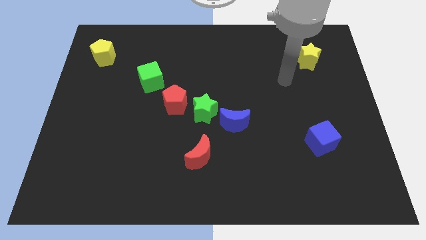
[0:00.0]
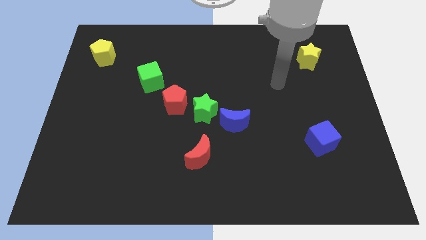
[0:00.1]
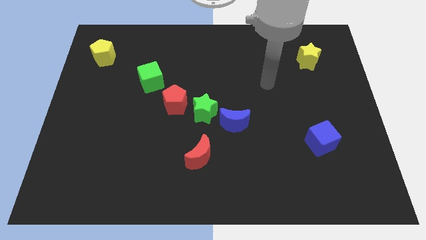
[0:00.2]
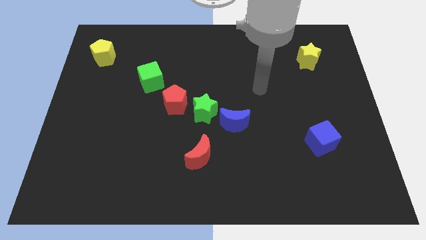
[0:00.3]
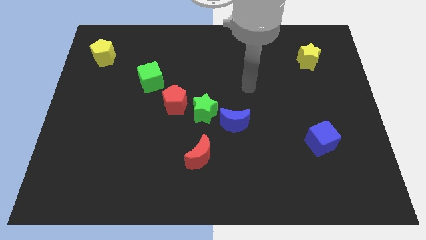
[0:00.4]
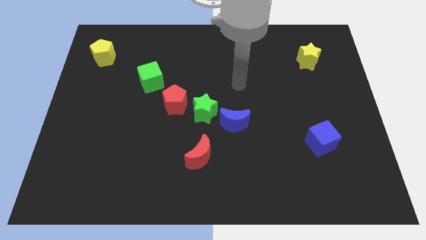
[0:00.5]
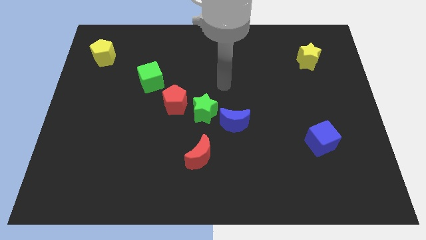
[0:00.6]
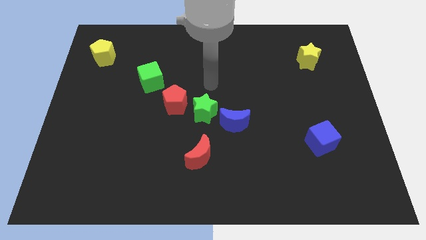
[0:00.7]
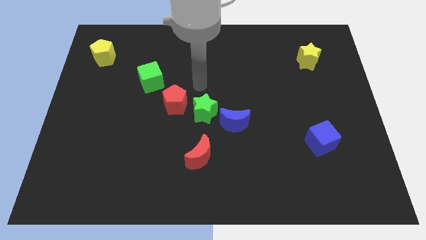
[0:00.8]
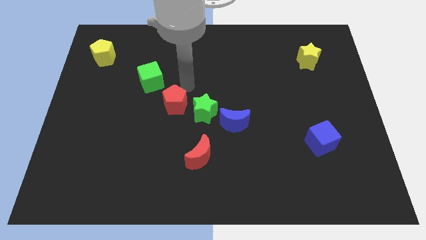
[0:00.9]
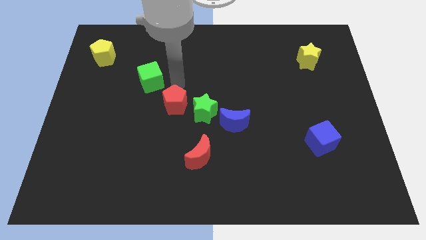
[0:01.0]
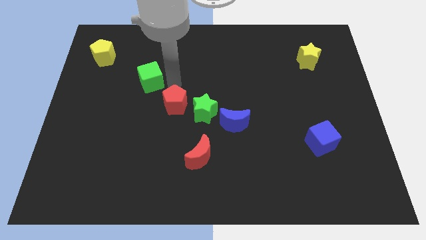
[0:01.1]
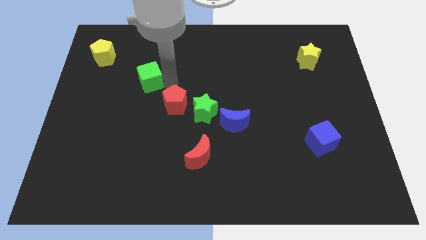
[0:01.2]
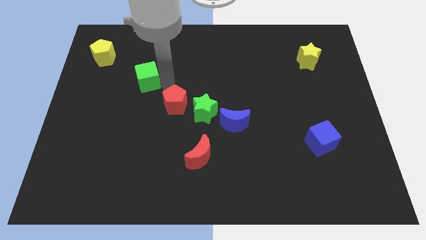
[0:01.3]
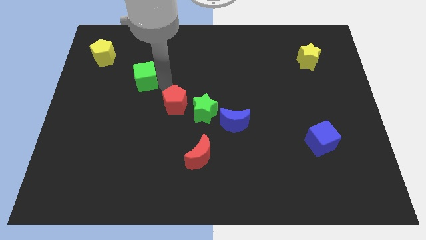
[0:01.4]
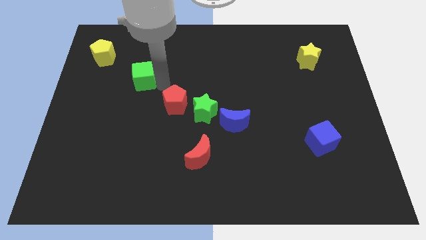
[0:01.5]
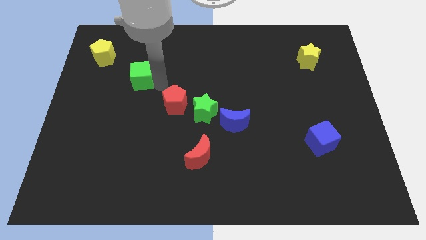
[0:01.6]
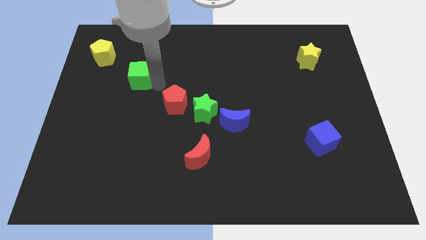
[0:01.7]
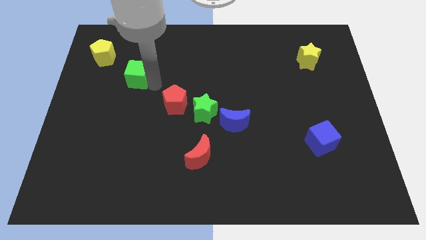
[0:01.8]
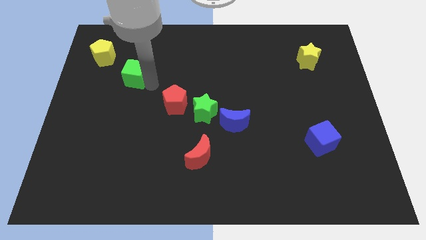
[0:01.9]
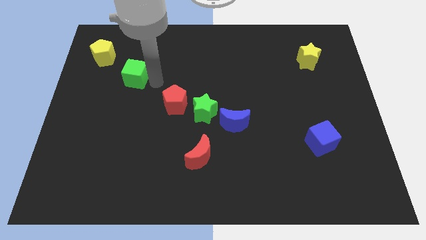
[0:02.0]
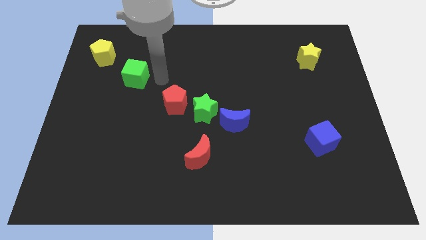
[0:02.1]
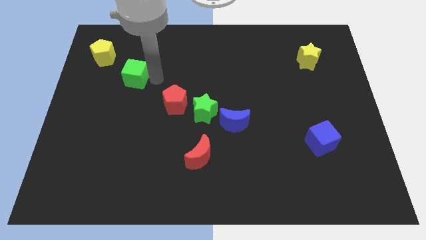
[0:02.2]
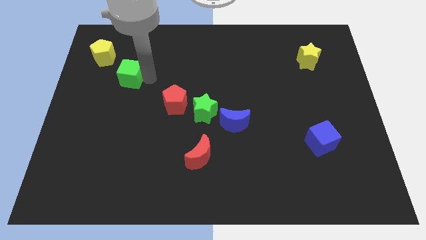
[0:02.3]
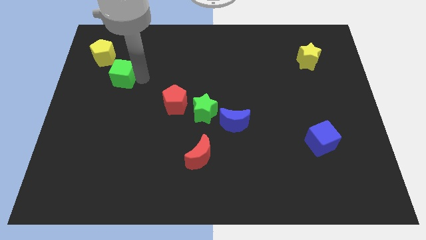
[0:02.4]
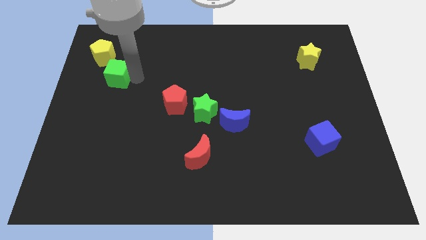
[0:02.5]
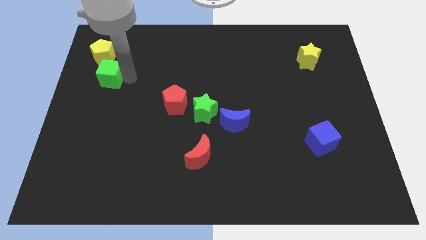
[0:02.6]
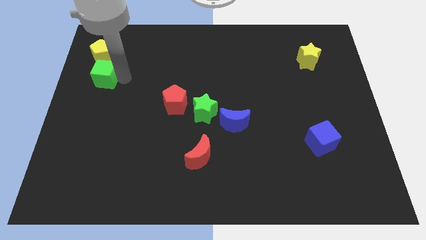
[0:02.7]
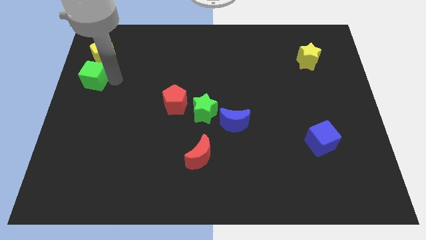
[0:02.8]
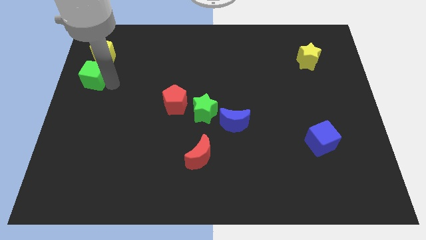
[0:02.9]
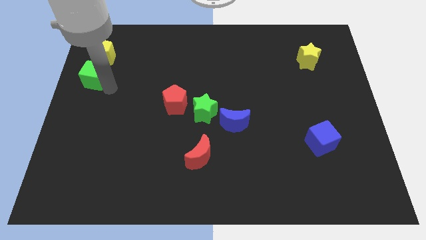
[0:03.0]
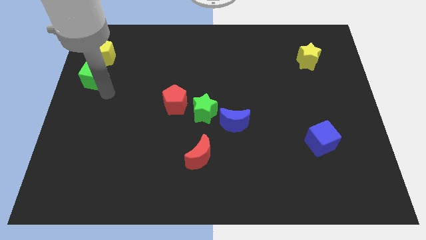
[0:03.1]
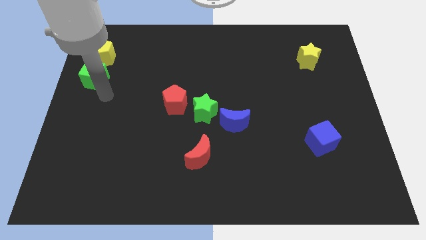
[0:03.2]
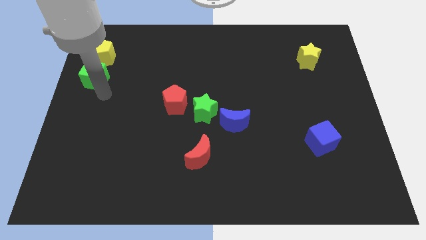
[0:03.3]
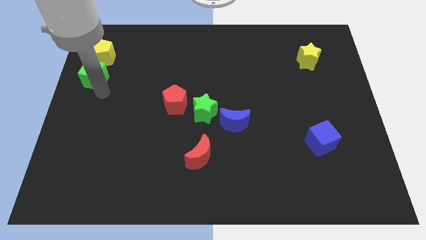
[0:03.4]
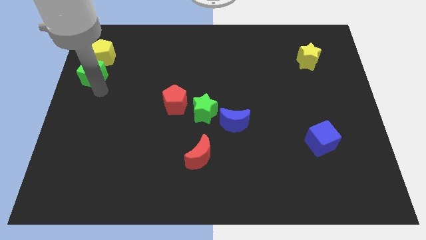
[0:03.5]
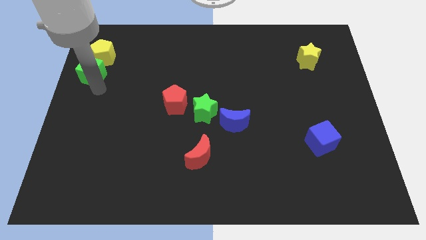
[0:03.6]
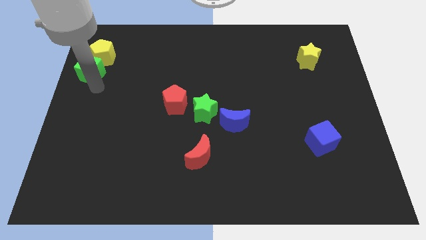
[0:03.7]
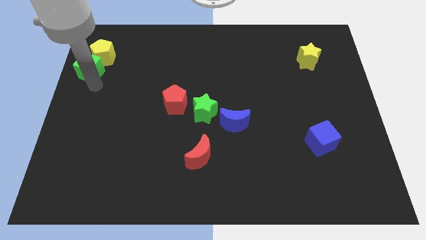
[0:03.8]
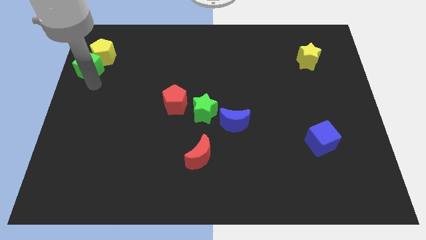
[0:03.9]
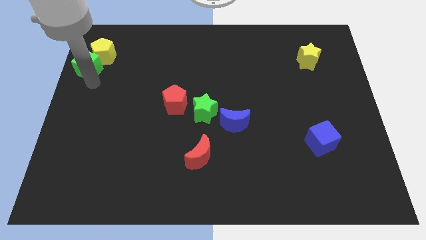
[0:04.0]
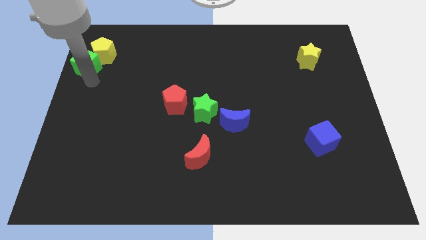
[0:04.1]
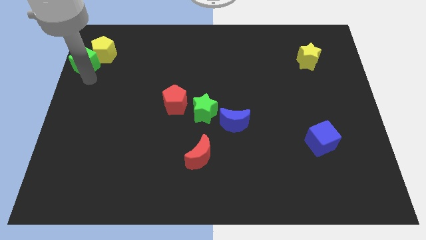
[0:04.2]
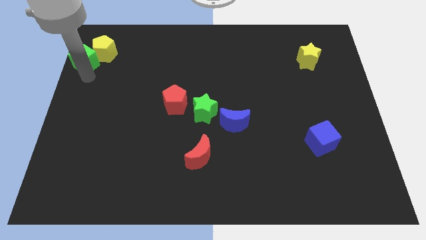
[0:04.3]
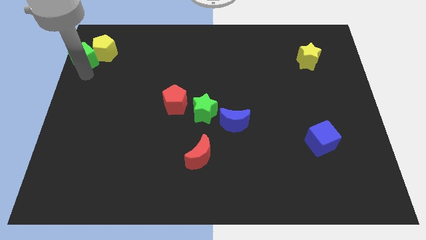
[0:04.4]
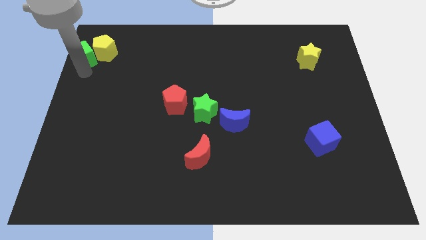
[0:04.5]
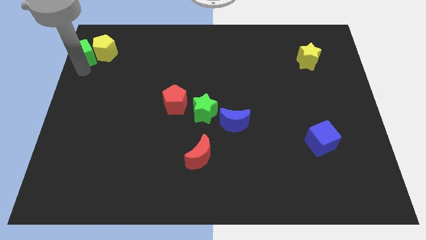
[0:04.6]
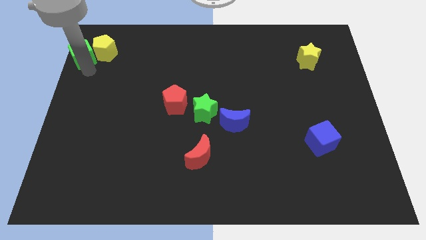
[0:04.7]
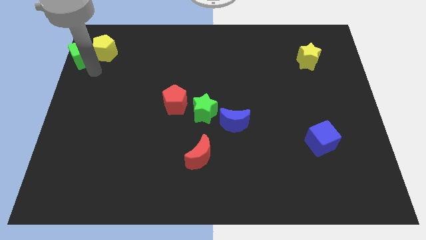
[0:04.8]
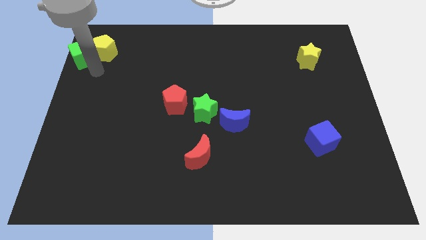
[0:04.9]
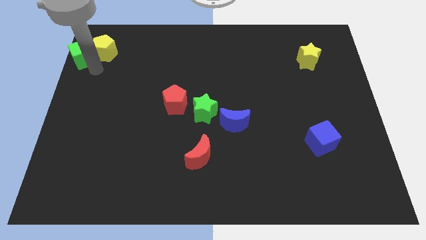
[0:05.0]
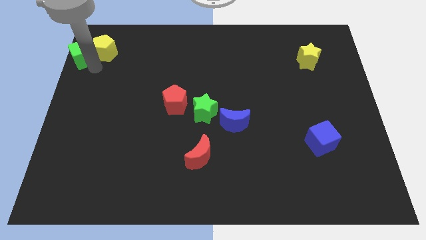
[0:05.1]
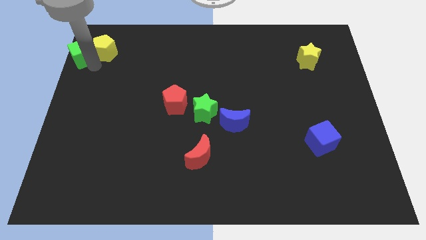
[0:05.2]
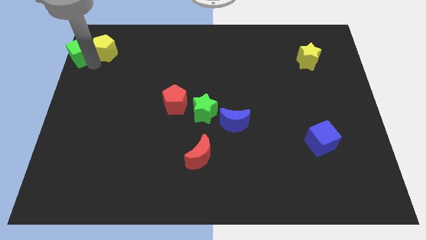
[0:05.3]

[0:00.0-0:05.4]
push the green cube to the top left corner

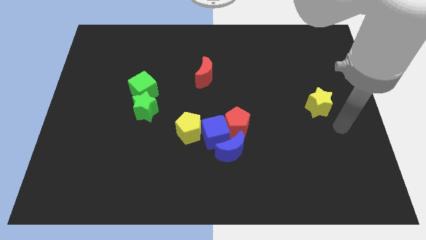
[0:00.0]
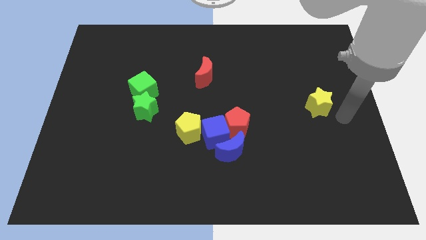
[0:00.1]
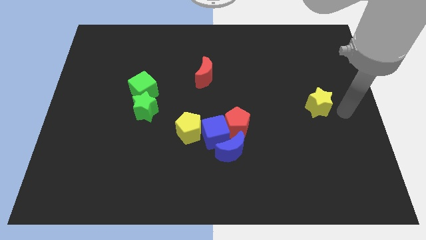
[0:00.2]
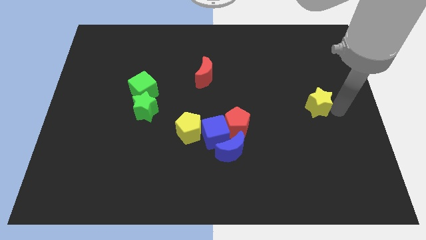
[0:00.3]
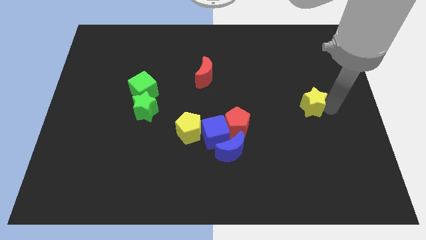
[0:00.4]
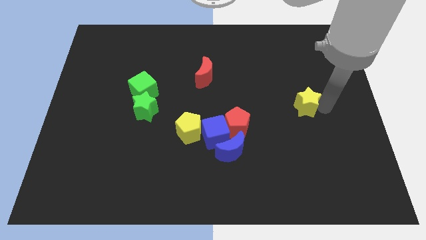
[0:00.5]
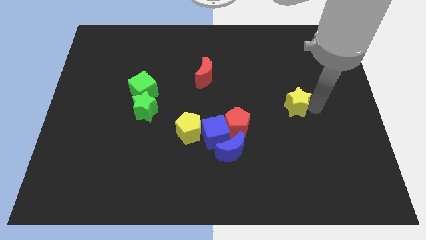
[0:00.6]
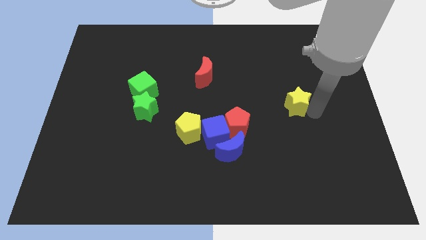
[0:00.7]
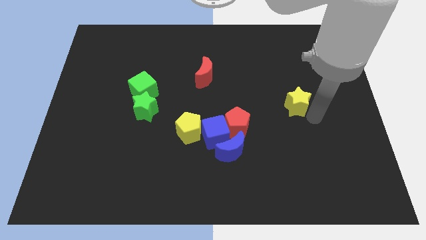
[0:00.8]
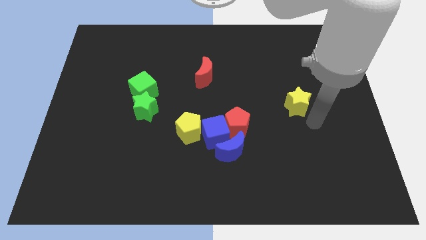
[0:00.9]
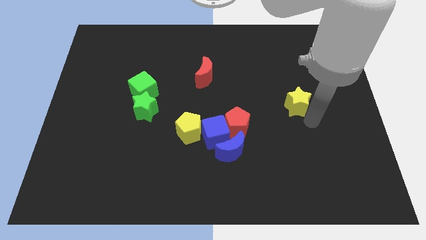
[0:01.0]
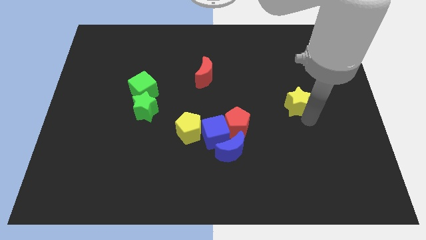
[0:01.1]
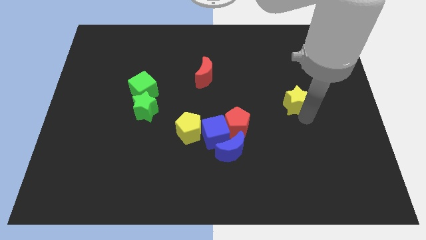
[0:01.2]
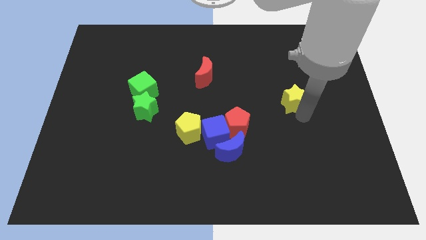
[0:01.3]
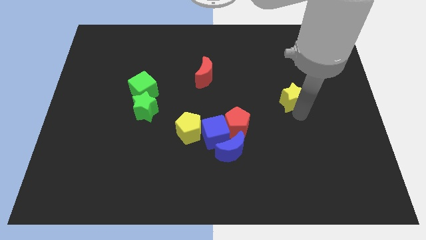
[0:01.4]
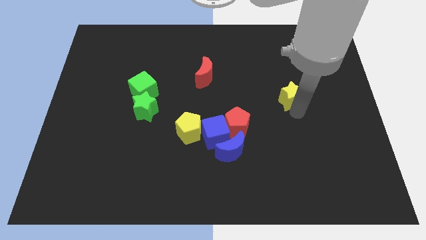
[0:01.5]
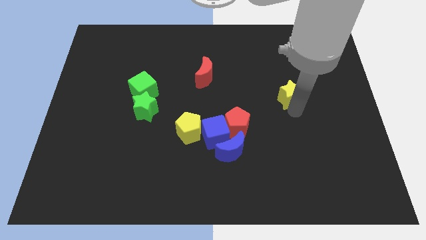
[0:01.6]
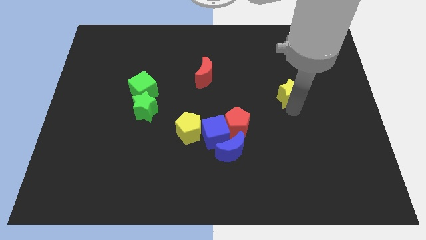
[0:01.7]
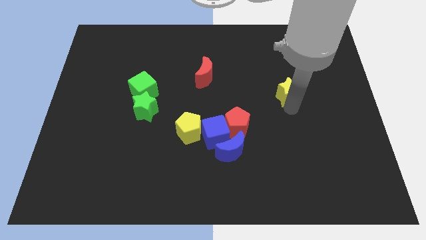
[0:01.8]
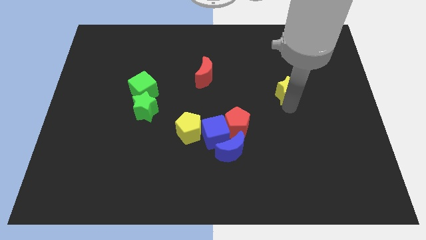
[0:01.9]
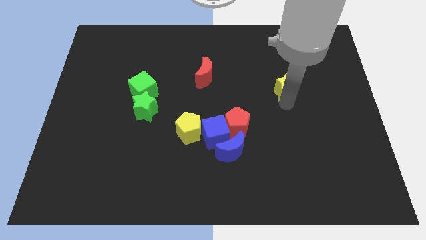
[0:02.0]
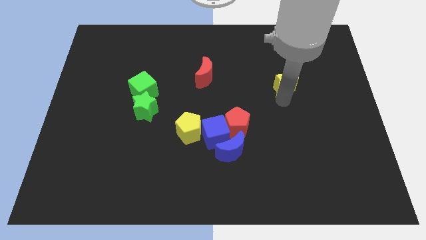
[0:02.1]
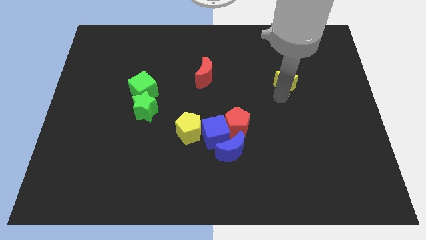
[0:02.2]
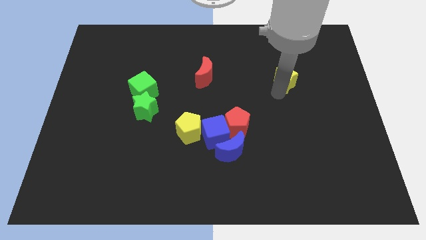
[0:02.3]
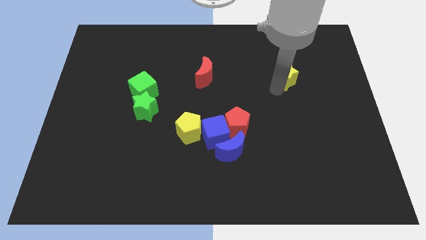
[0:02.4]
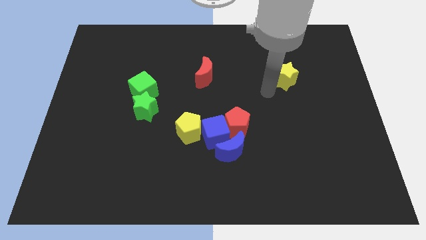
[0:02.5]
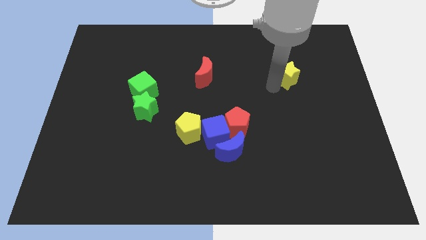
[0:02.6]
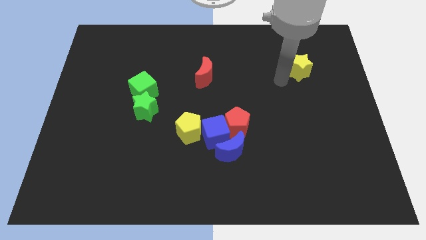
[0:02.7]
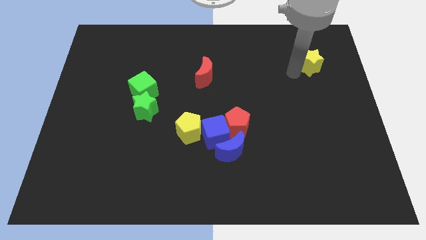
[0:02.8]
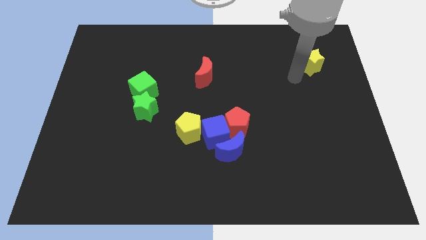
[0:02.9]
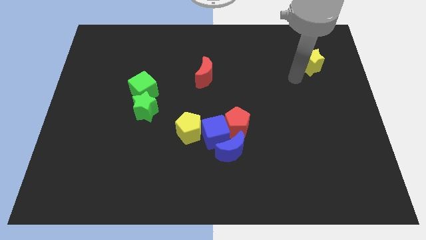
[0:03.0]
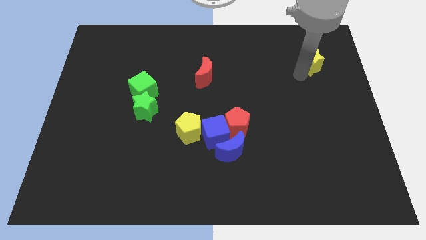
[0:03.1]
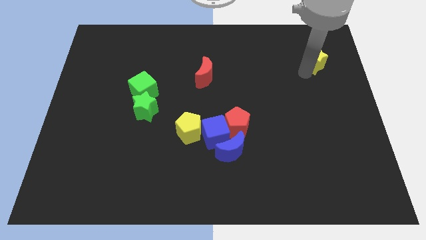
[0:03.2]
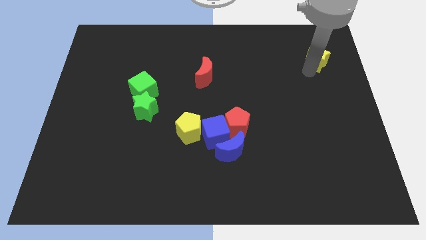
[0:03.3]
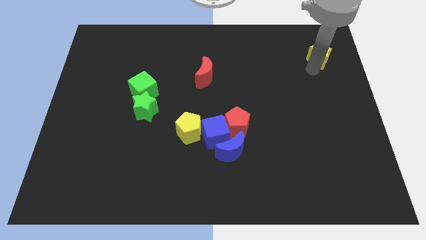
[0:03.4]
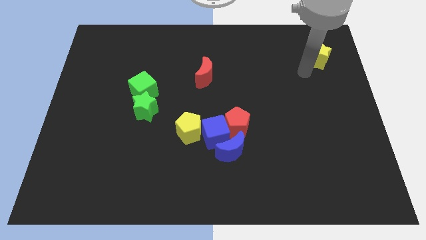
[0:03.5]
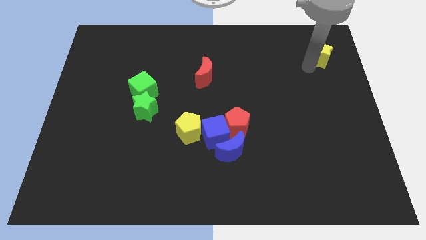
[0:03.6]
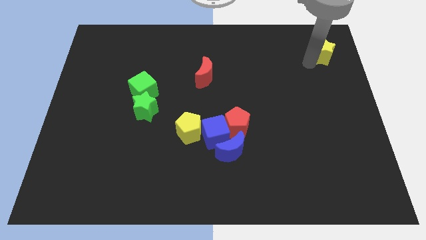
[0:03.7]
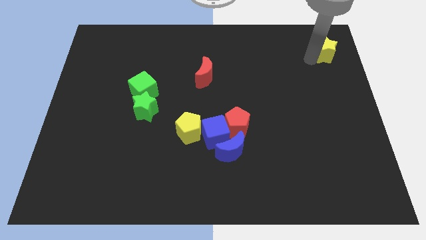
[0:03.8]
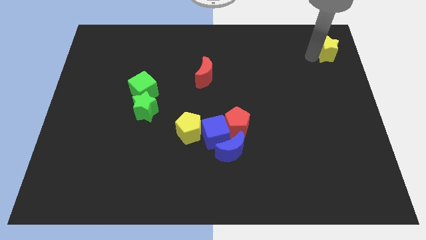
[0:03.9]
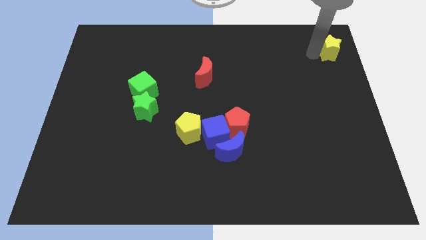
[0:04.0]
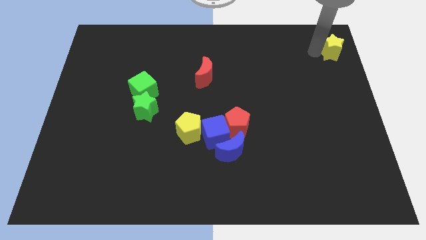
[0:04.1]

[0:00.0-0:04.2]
push the yellow star to the top right
